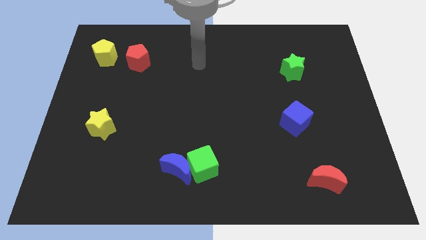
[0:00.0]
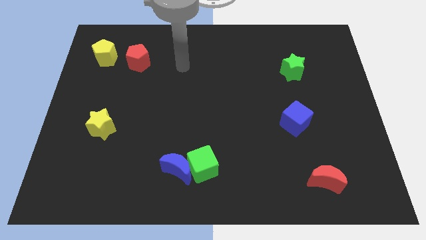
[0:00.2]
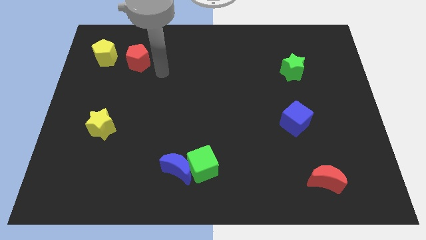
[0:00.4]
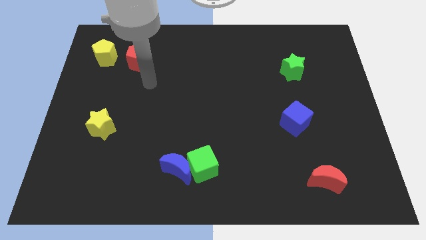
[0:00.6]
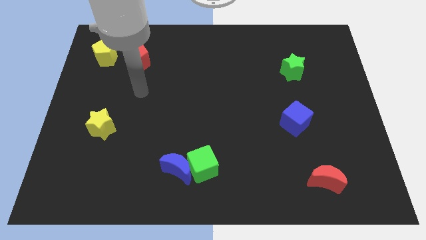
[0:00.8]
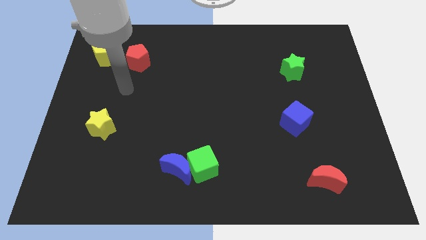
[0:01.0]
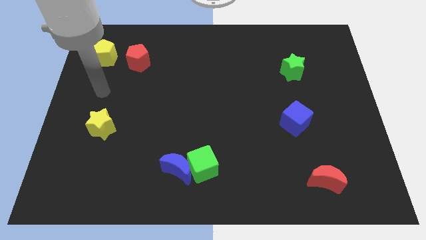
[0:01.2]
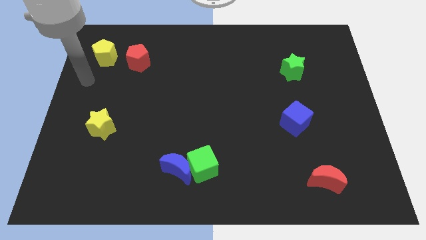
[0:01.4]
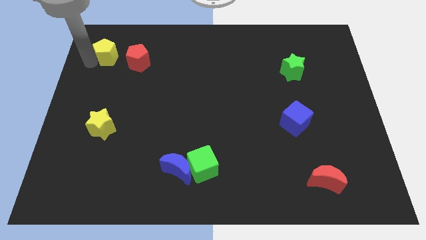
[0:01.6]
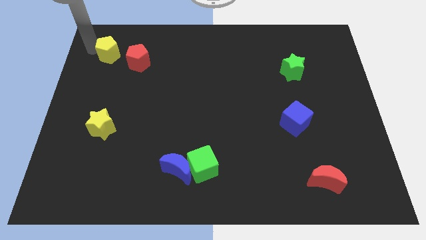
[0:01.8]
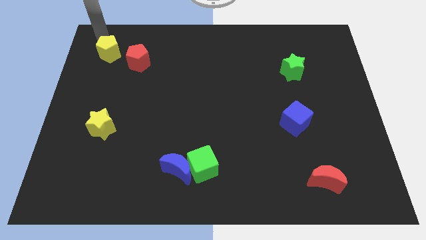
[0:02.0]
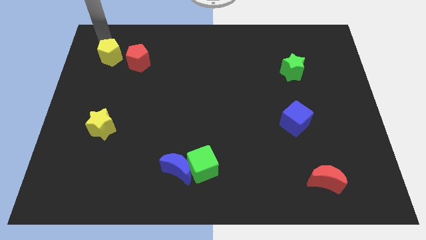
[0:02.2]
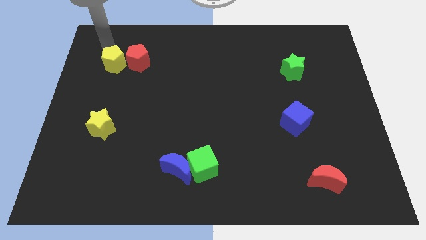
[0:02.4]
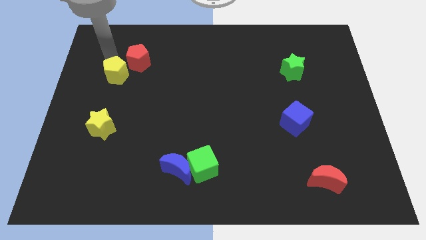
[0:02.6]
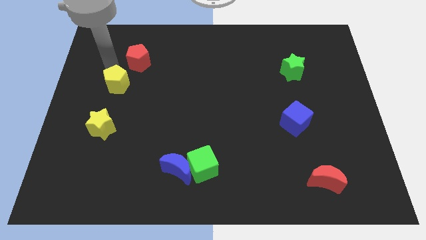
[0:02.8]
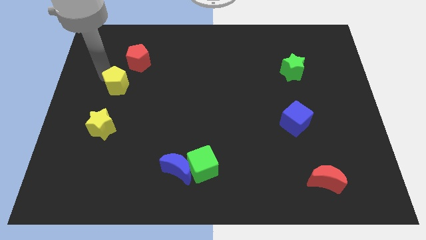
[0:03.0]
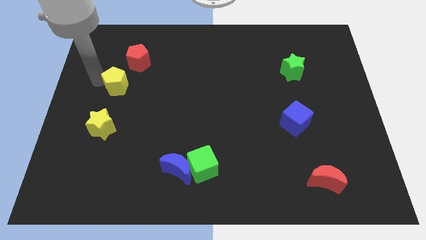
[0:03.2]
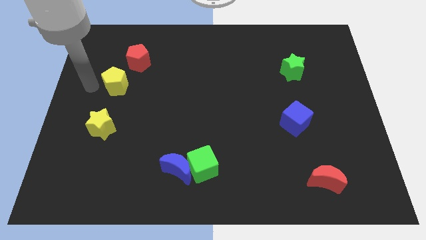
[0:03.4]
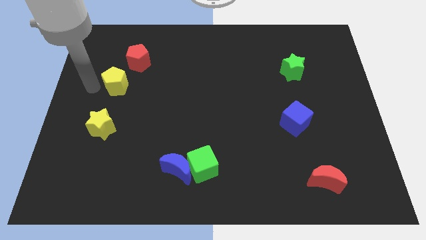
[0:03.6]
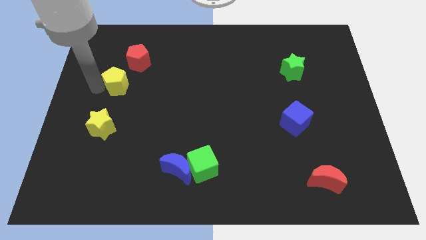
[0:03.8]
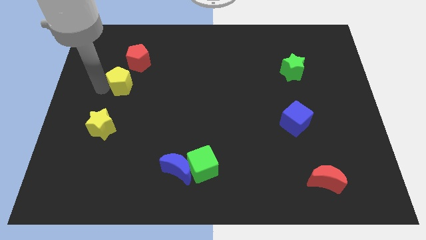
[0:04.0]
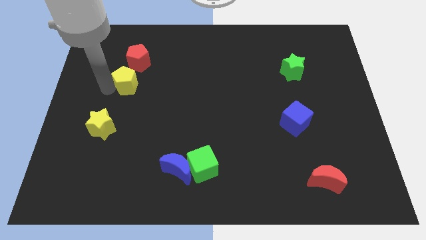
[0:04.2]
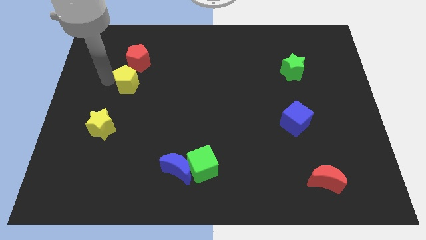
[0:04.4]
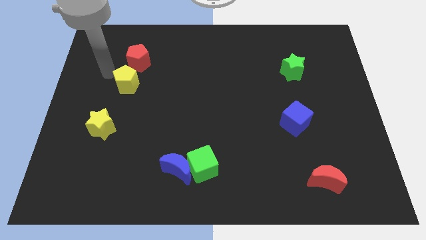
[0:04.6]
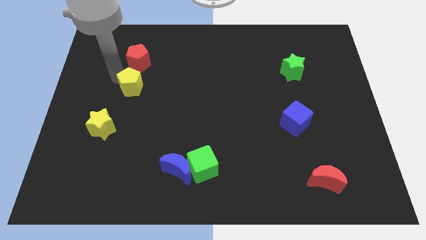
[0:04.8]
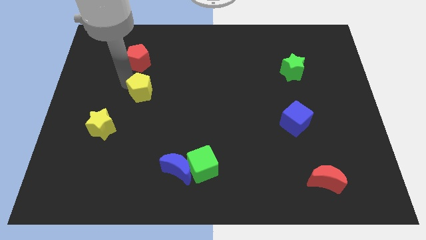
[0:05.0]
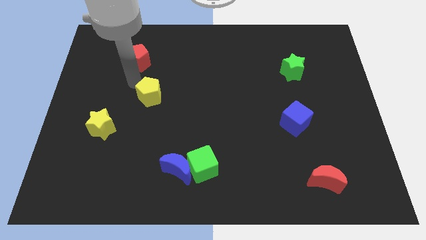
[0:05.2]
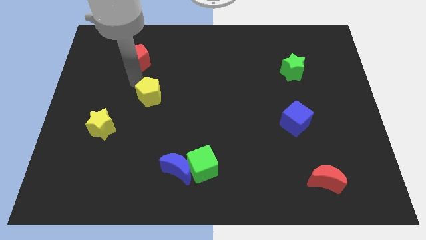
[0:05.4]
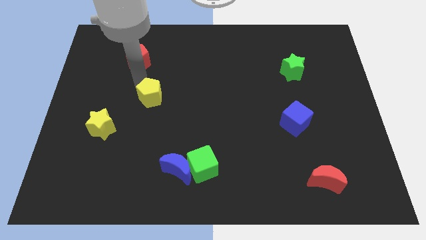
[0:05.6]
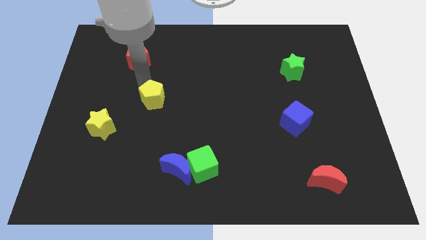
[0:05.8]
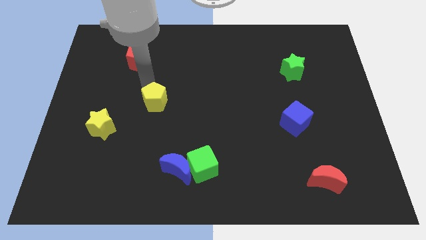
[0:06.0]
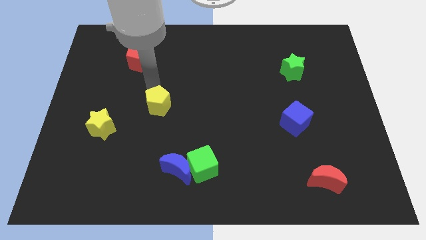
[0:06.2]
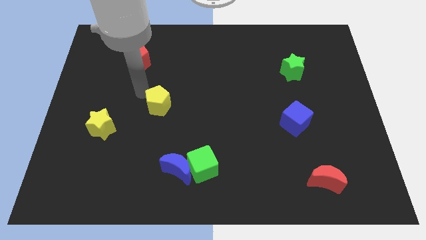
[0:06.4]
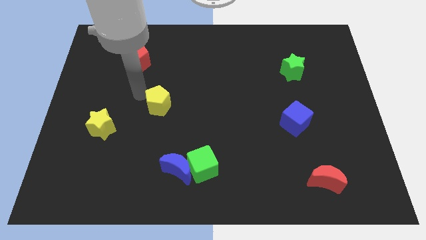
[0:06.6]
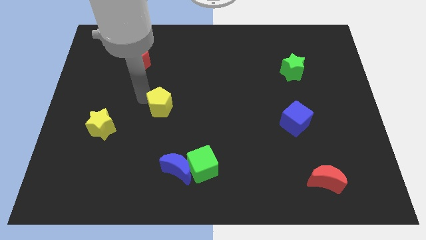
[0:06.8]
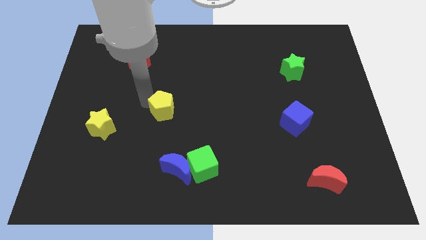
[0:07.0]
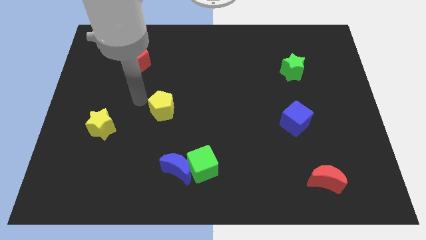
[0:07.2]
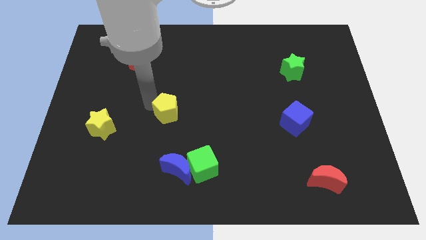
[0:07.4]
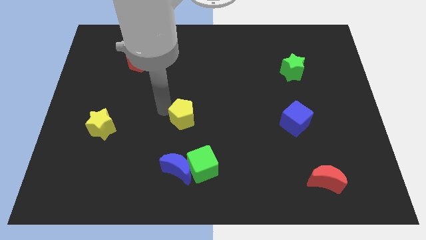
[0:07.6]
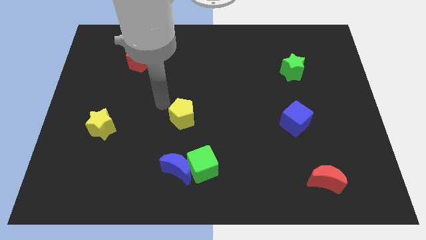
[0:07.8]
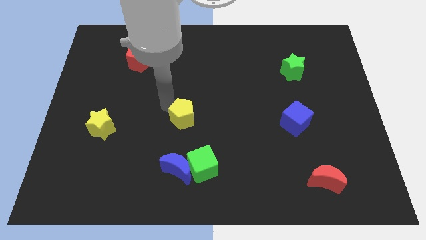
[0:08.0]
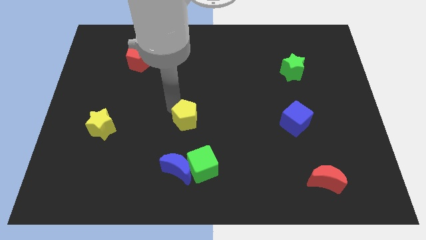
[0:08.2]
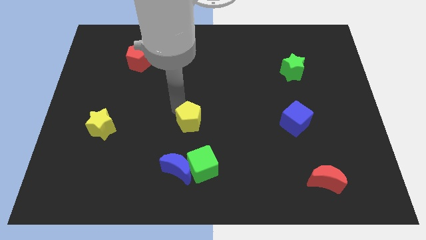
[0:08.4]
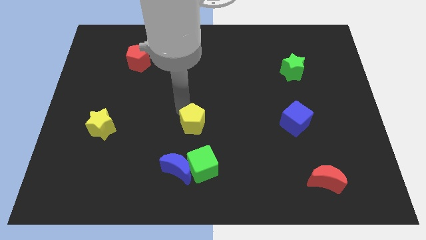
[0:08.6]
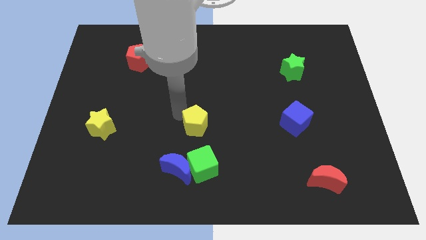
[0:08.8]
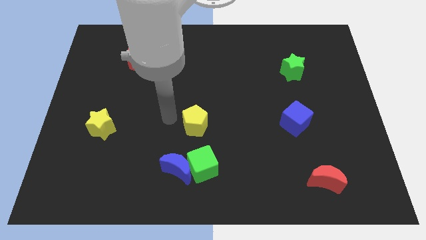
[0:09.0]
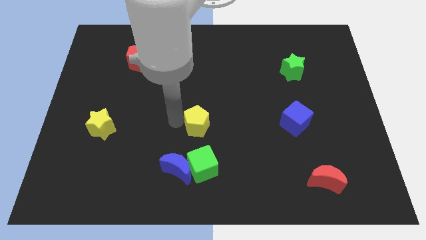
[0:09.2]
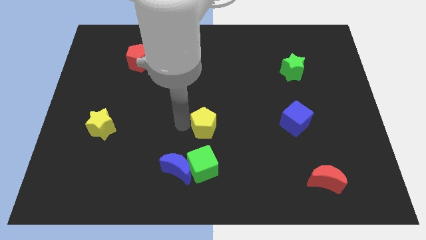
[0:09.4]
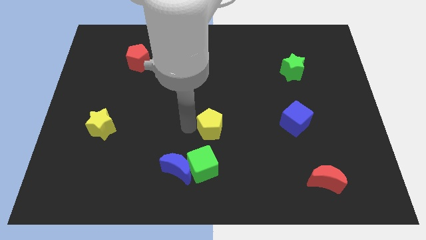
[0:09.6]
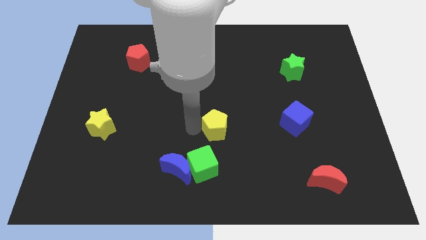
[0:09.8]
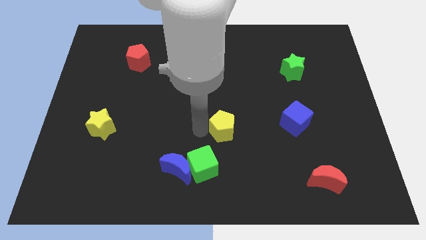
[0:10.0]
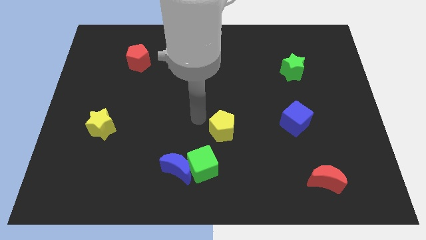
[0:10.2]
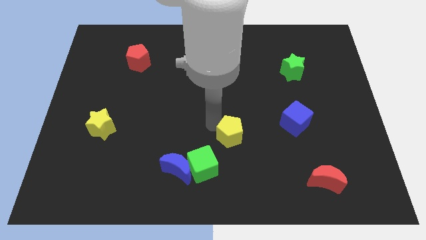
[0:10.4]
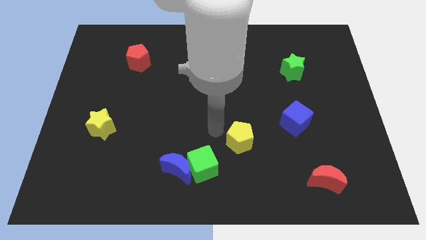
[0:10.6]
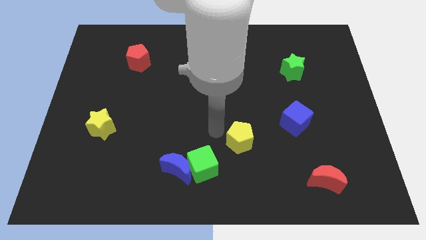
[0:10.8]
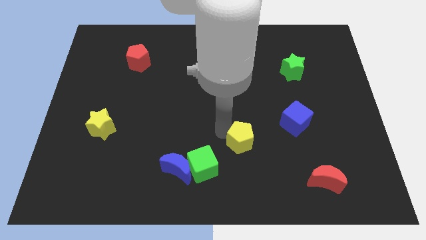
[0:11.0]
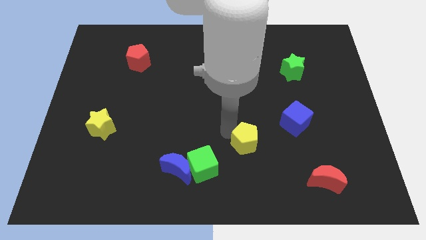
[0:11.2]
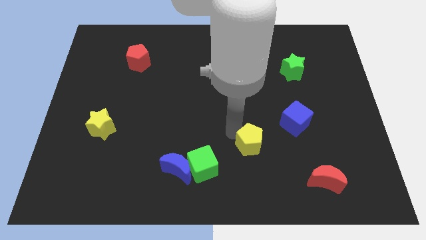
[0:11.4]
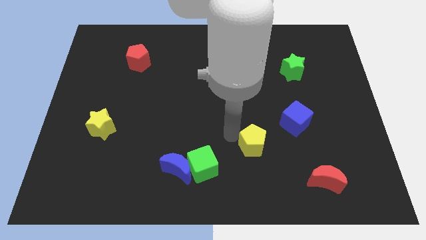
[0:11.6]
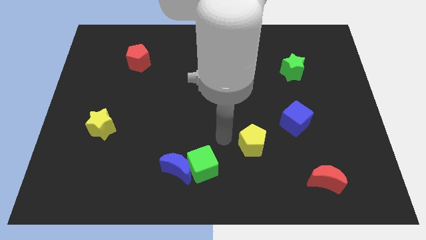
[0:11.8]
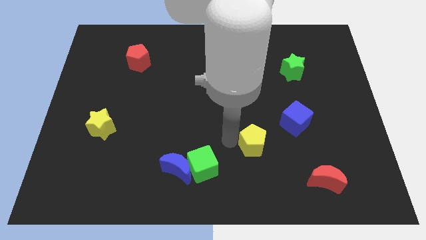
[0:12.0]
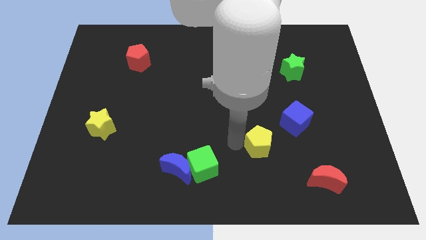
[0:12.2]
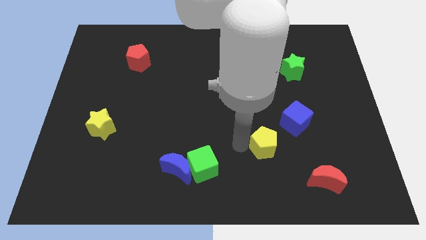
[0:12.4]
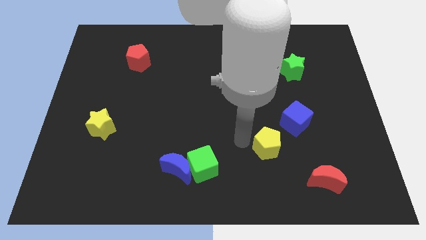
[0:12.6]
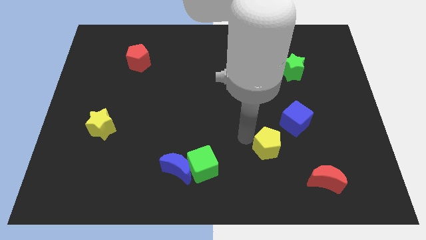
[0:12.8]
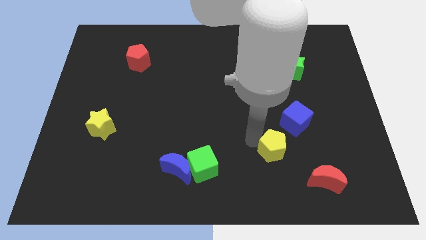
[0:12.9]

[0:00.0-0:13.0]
move the yellow pentagon diagonally up and to the left of the red moon

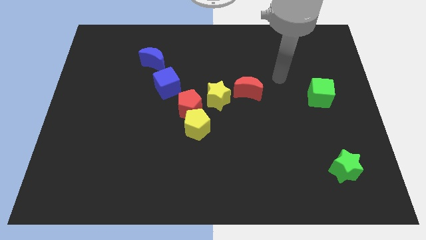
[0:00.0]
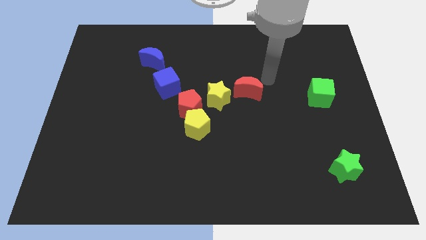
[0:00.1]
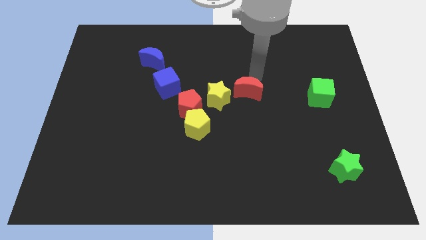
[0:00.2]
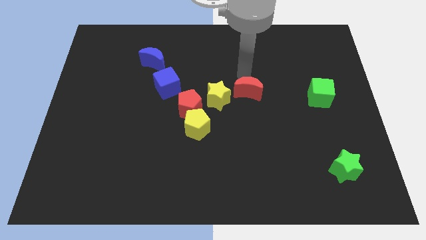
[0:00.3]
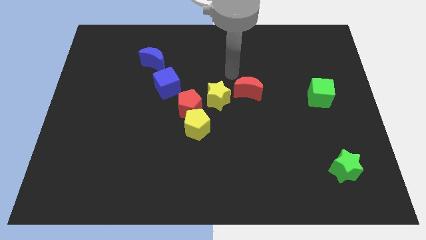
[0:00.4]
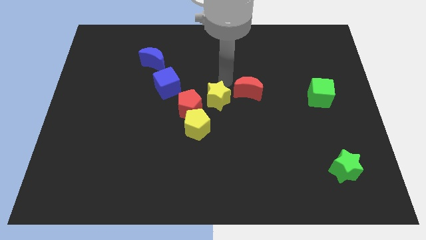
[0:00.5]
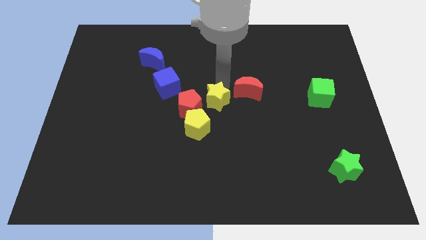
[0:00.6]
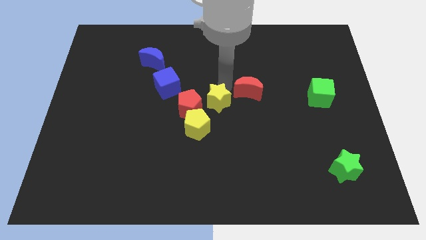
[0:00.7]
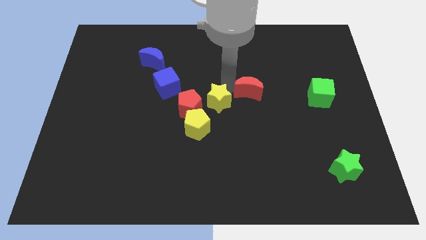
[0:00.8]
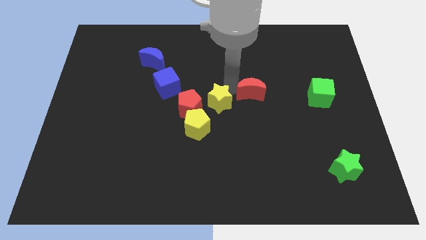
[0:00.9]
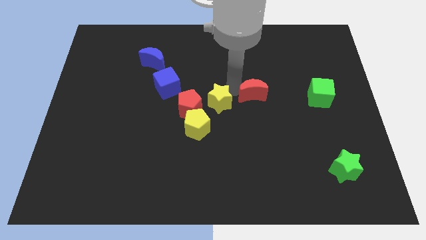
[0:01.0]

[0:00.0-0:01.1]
put the red moon to the left side of the green cube
